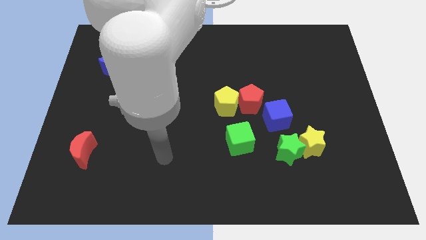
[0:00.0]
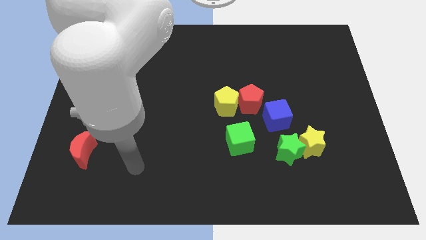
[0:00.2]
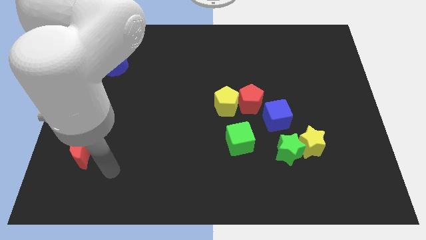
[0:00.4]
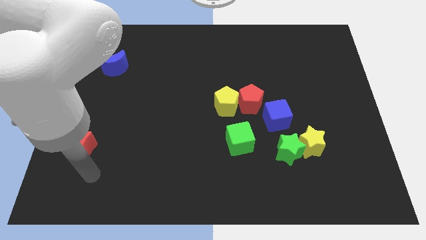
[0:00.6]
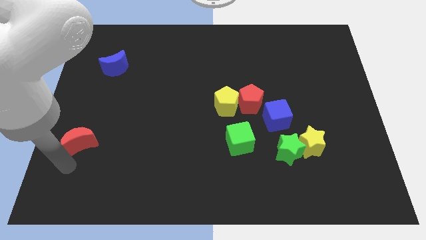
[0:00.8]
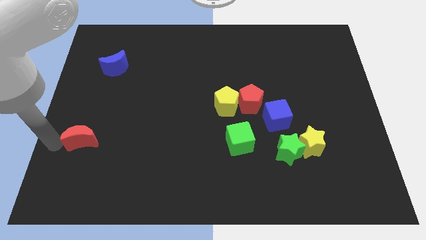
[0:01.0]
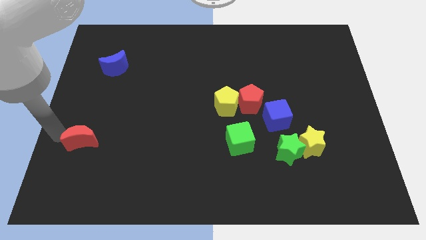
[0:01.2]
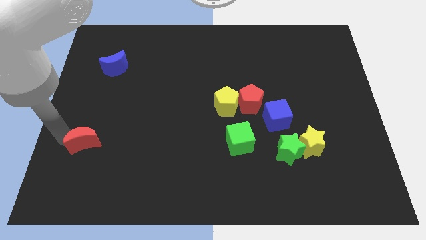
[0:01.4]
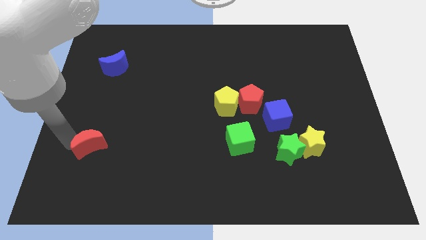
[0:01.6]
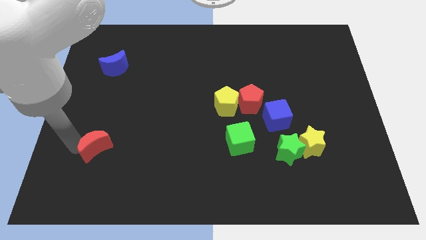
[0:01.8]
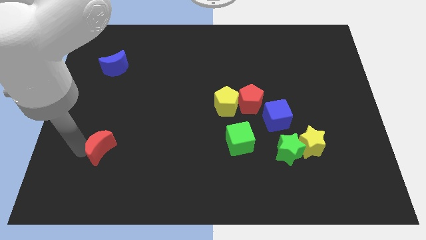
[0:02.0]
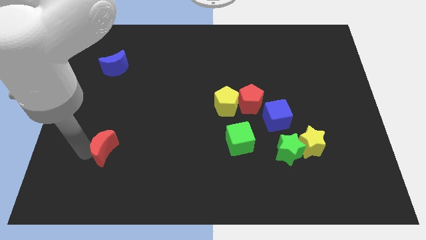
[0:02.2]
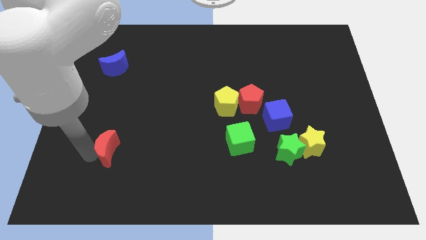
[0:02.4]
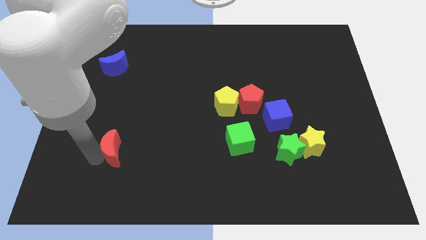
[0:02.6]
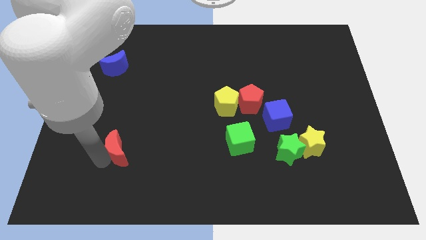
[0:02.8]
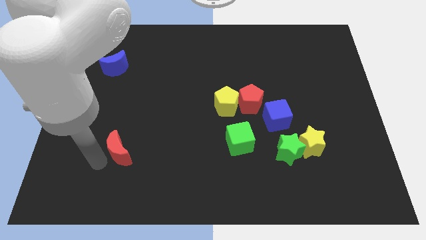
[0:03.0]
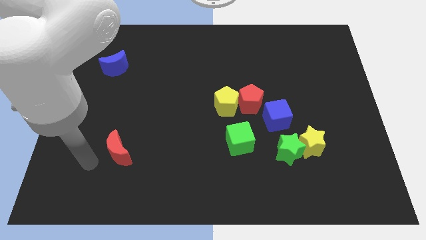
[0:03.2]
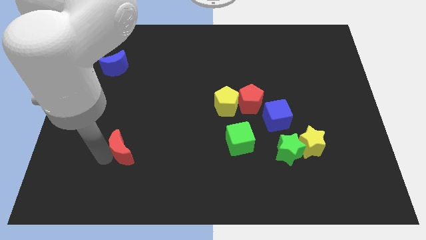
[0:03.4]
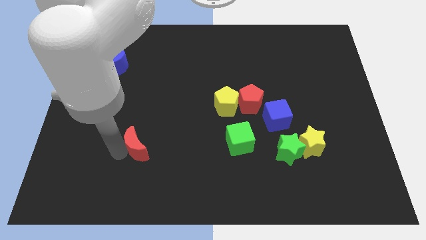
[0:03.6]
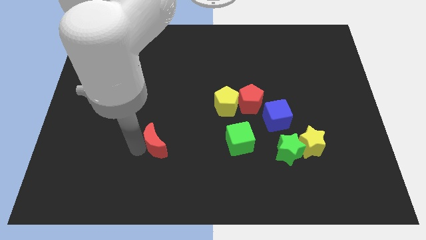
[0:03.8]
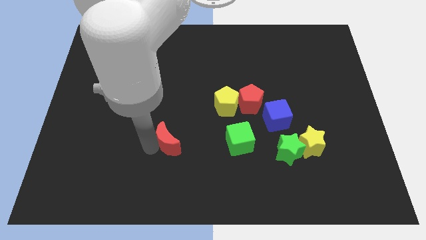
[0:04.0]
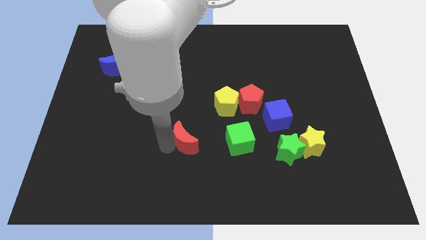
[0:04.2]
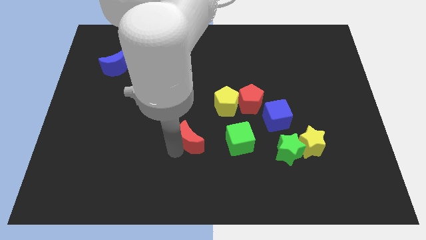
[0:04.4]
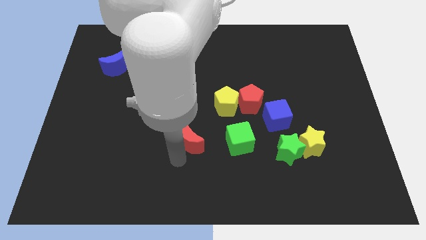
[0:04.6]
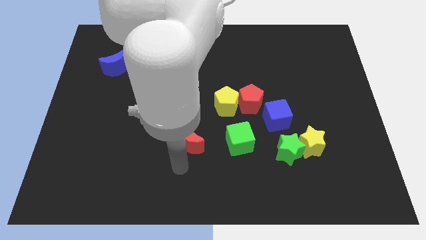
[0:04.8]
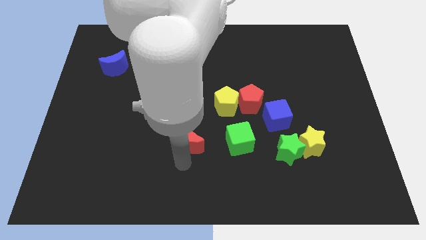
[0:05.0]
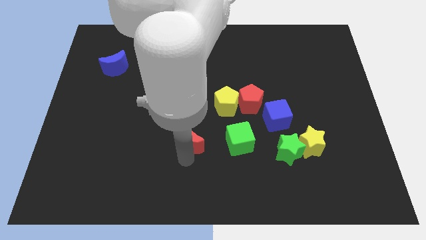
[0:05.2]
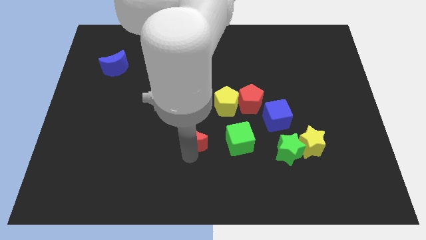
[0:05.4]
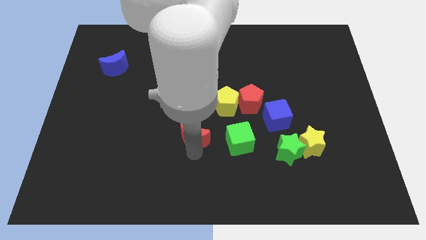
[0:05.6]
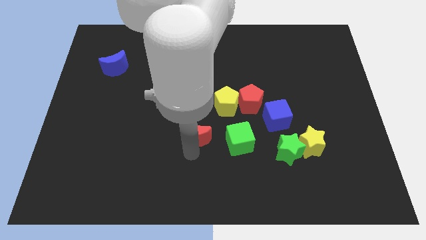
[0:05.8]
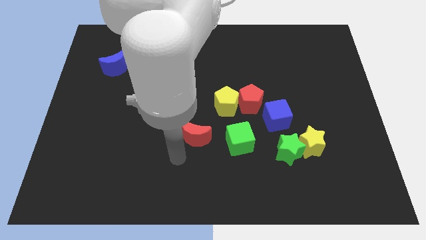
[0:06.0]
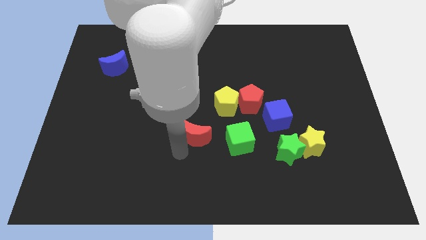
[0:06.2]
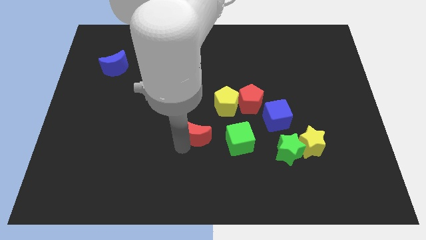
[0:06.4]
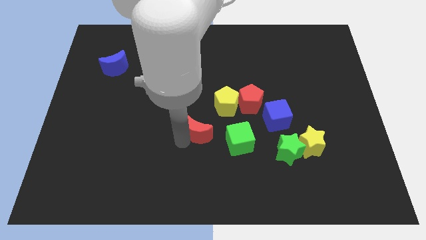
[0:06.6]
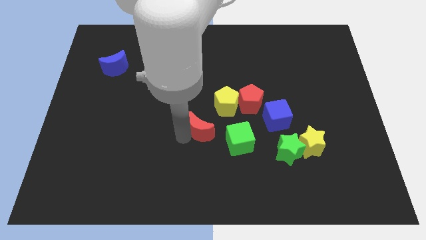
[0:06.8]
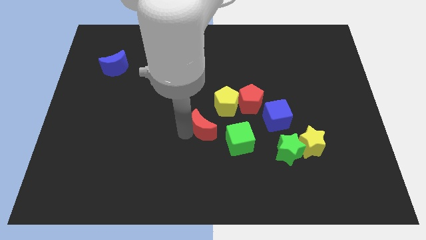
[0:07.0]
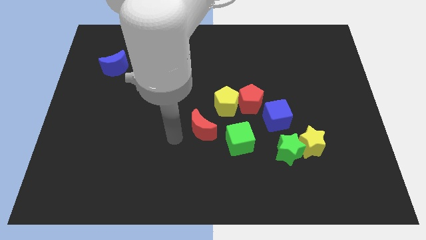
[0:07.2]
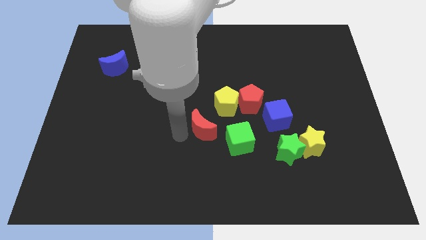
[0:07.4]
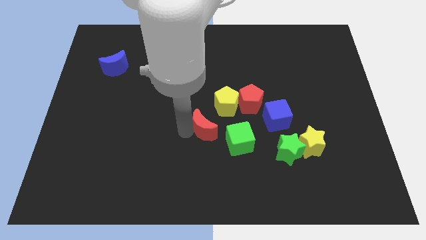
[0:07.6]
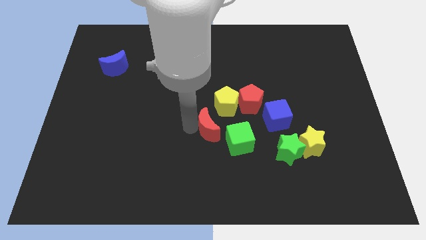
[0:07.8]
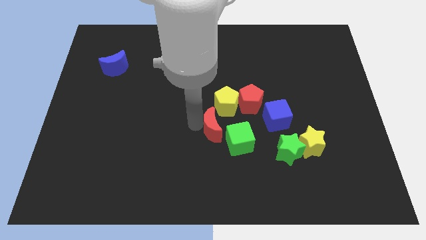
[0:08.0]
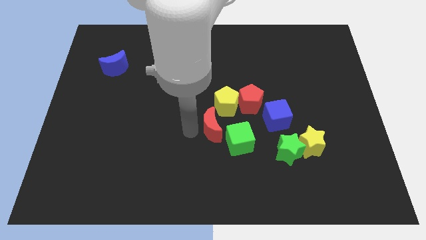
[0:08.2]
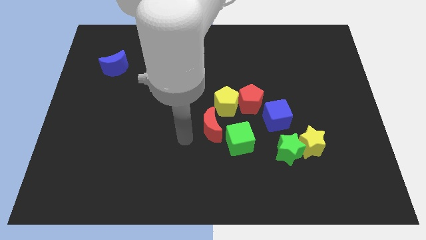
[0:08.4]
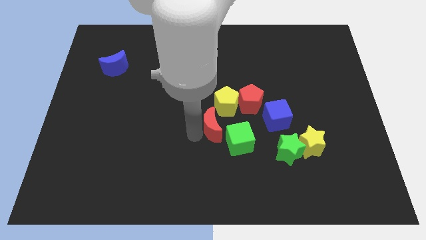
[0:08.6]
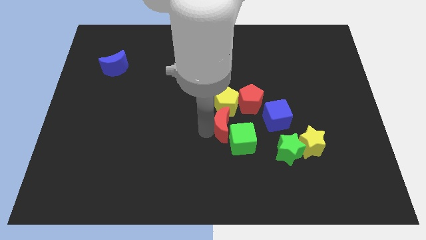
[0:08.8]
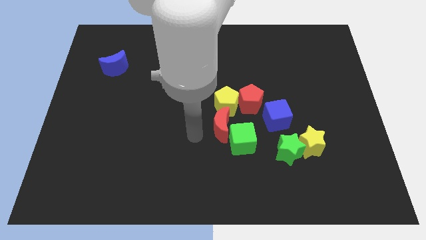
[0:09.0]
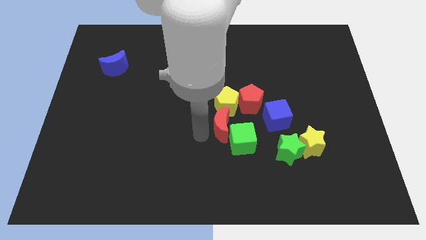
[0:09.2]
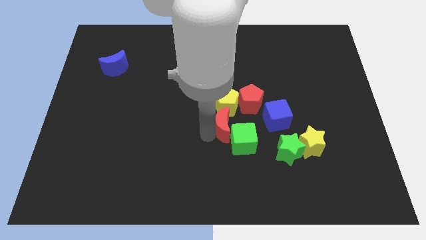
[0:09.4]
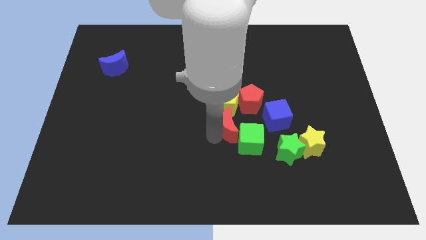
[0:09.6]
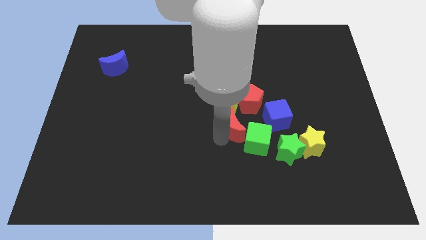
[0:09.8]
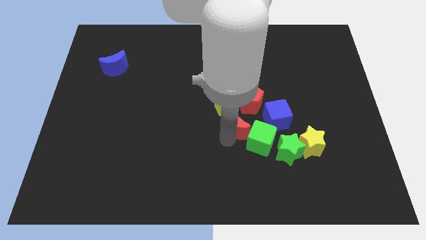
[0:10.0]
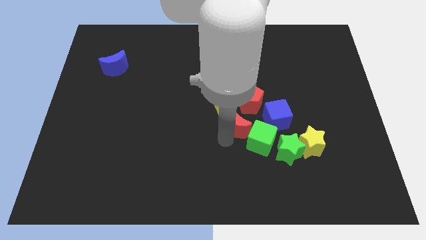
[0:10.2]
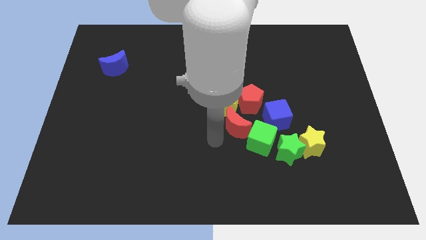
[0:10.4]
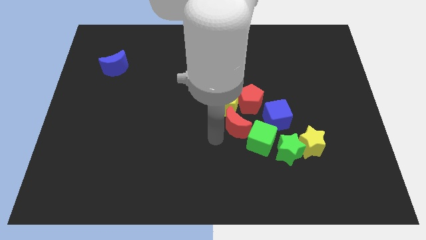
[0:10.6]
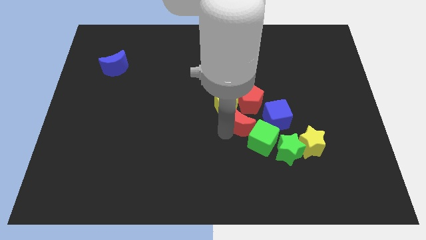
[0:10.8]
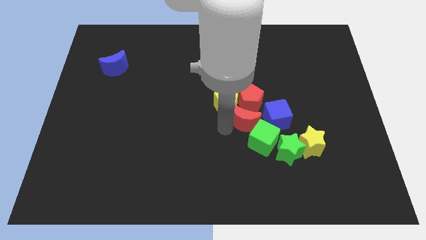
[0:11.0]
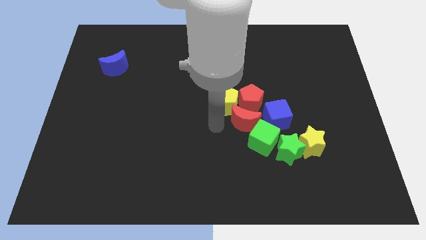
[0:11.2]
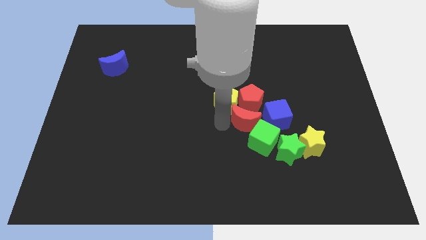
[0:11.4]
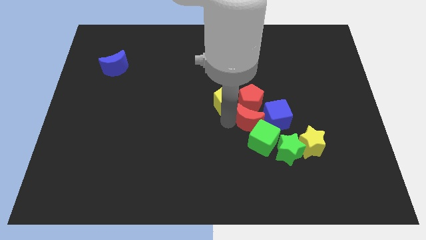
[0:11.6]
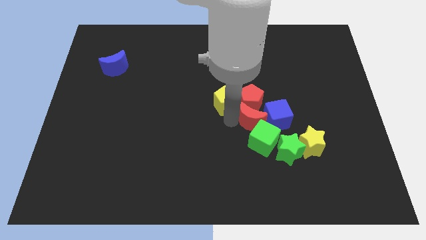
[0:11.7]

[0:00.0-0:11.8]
put the red moon towards the blue cube

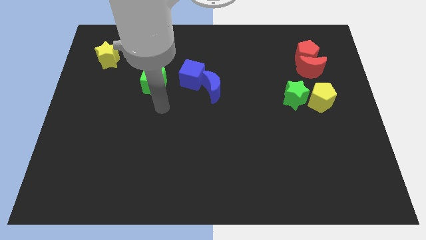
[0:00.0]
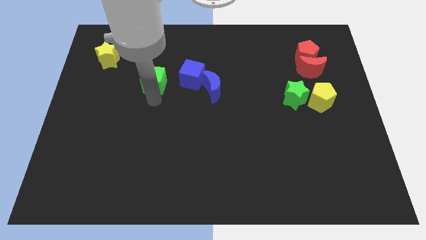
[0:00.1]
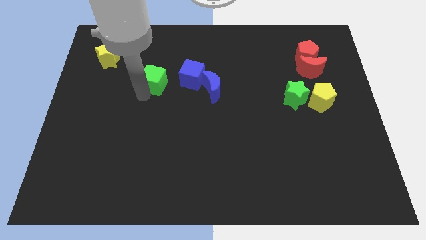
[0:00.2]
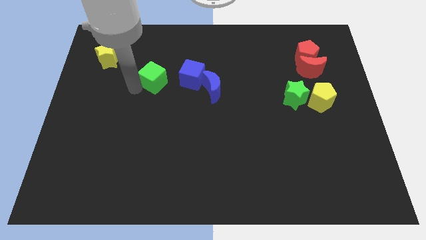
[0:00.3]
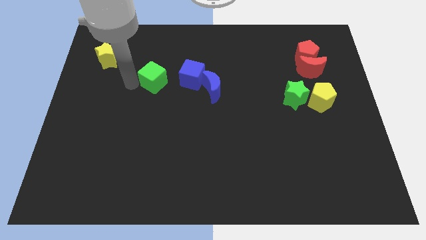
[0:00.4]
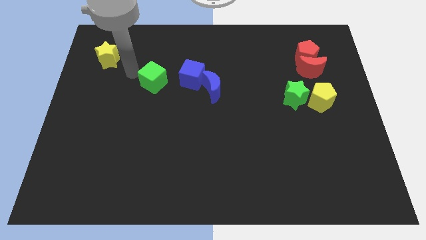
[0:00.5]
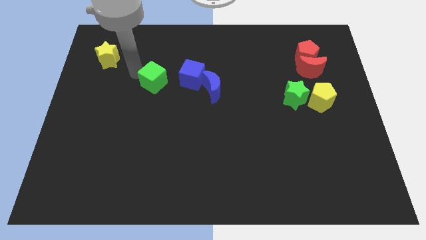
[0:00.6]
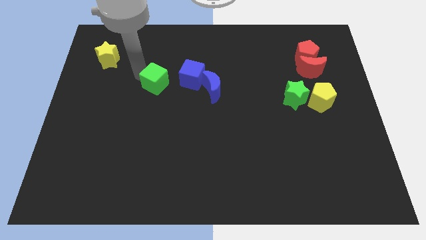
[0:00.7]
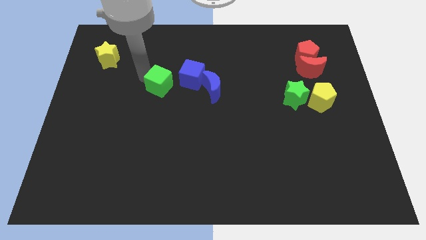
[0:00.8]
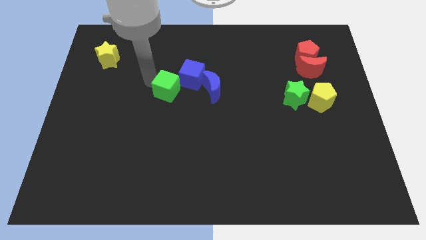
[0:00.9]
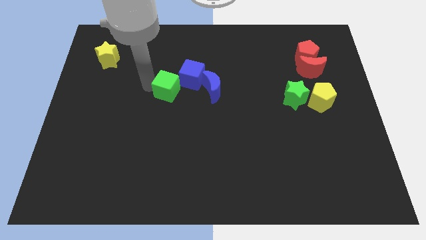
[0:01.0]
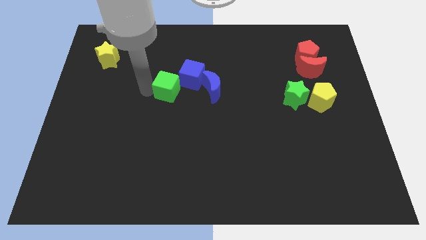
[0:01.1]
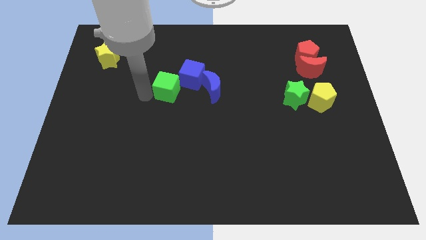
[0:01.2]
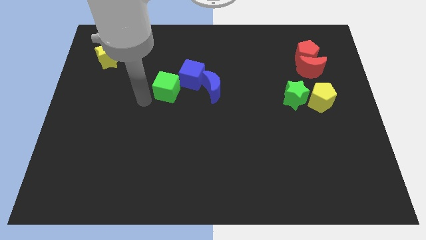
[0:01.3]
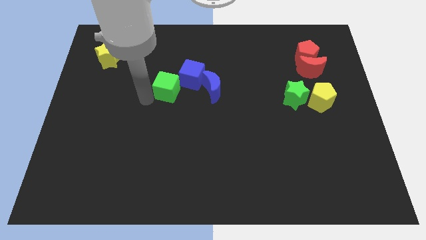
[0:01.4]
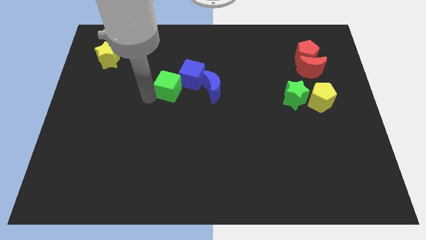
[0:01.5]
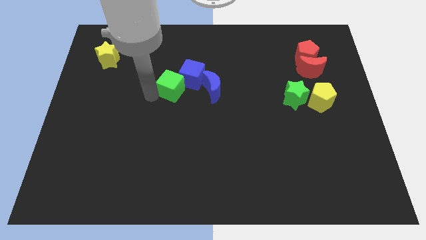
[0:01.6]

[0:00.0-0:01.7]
put the green cube towards the blue cube
